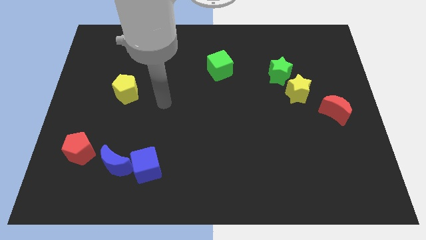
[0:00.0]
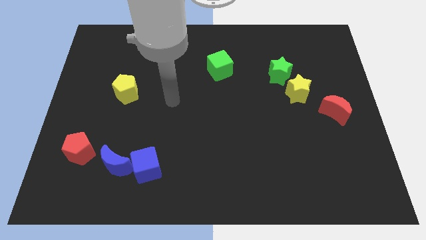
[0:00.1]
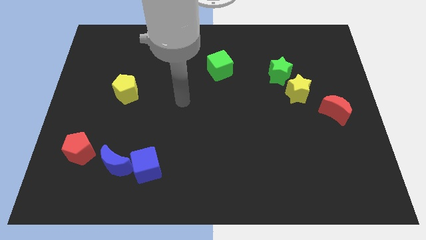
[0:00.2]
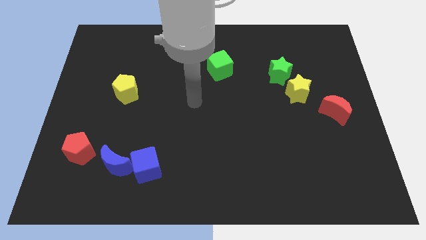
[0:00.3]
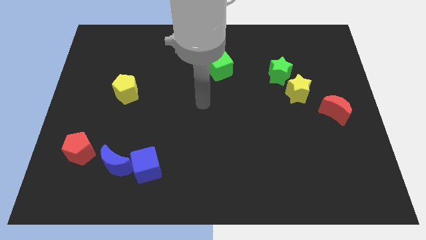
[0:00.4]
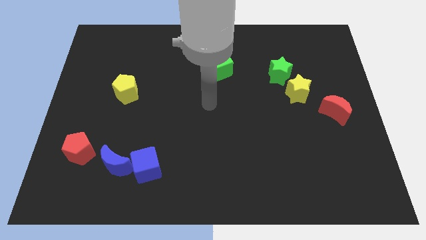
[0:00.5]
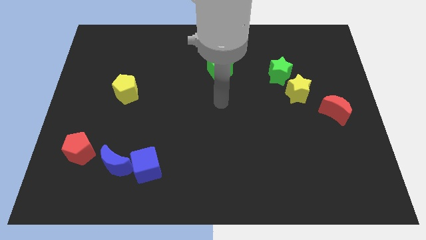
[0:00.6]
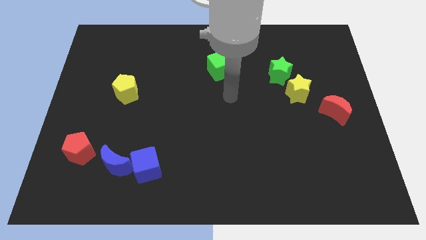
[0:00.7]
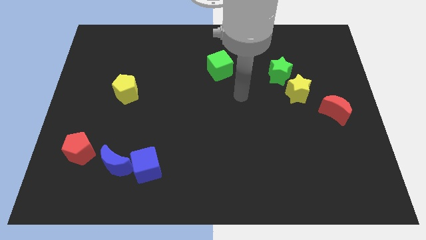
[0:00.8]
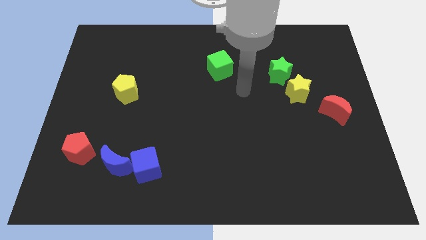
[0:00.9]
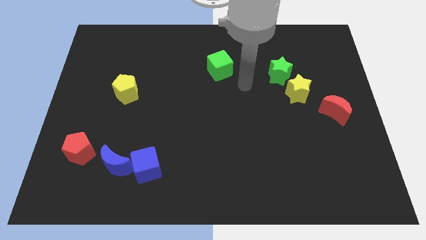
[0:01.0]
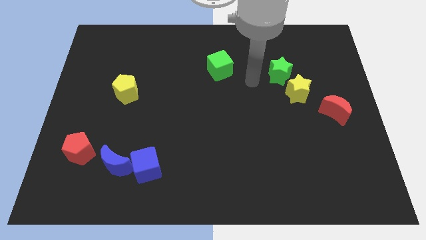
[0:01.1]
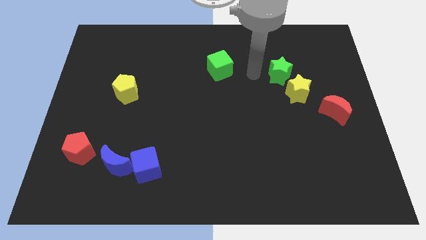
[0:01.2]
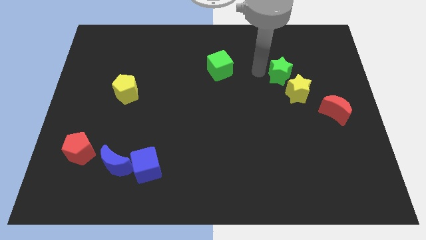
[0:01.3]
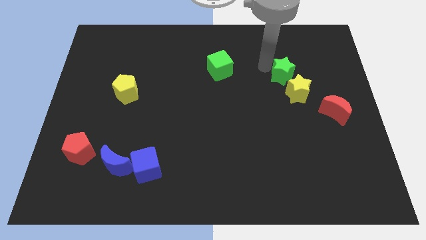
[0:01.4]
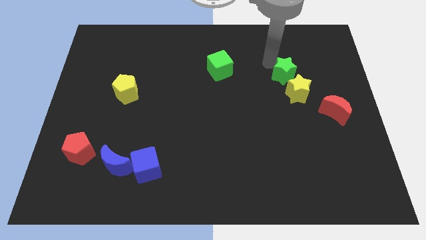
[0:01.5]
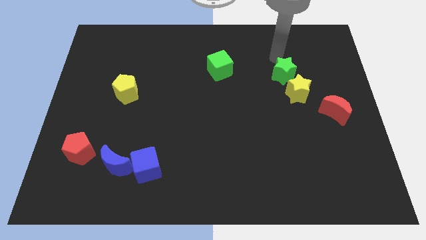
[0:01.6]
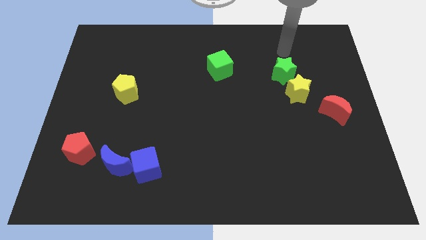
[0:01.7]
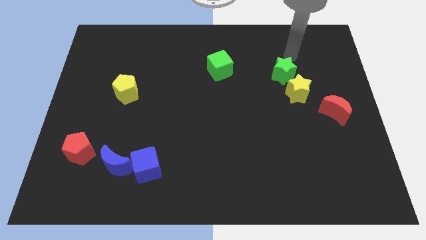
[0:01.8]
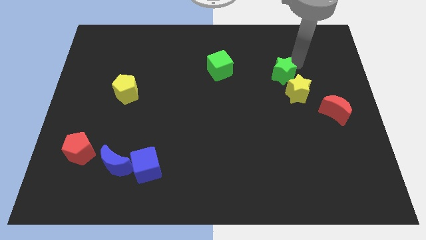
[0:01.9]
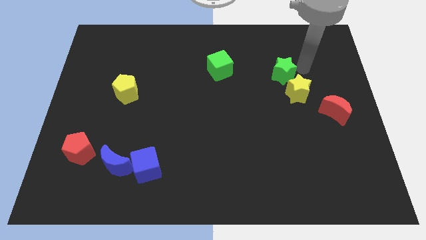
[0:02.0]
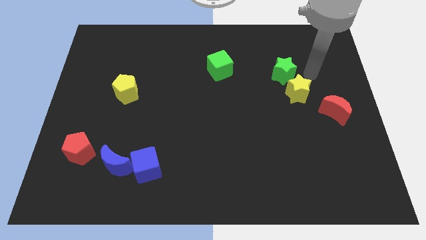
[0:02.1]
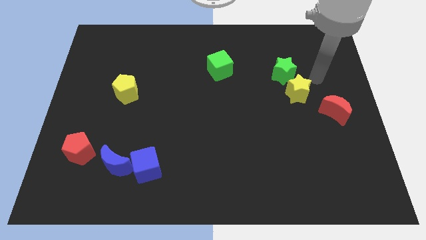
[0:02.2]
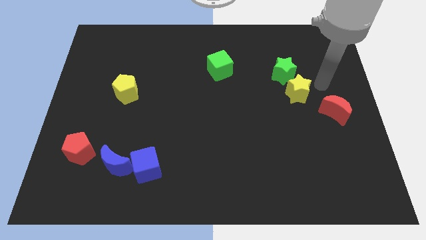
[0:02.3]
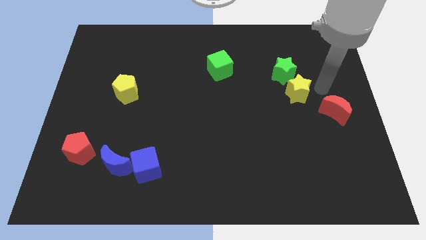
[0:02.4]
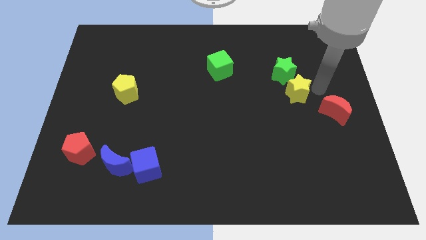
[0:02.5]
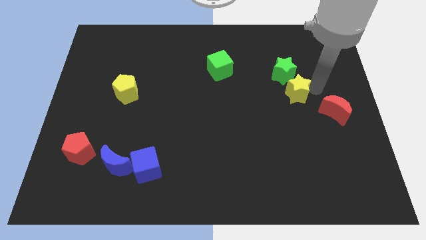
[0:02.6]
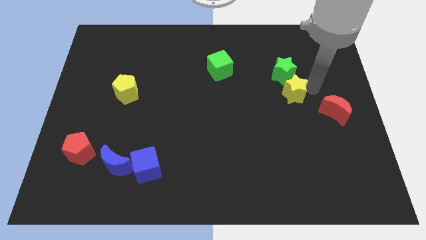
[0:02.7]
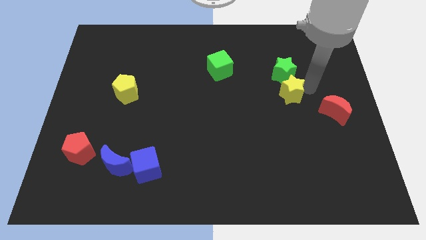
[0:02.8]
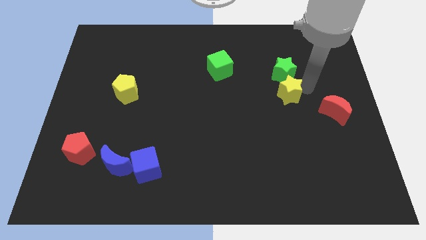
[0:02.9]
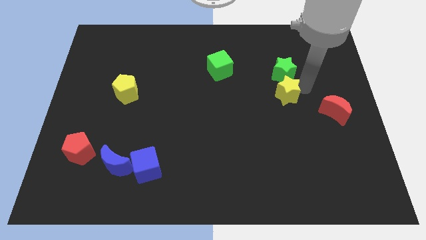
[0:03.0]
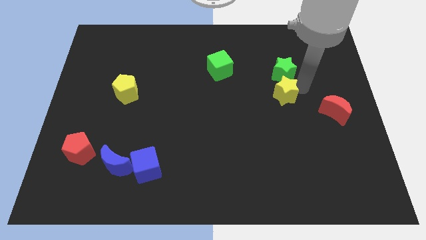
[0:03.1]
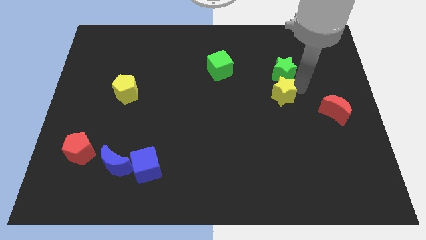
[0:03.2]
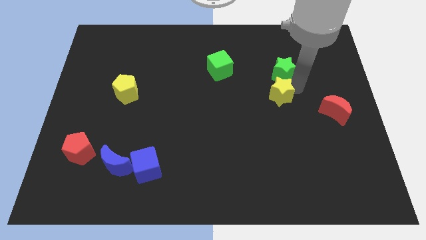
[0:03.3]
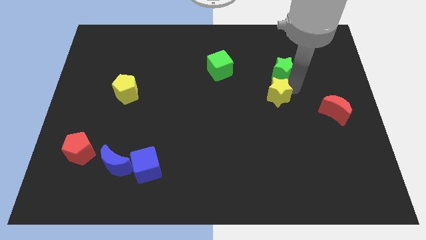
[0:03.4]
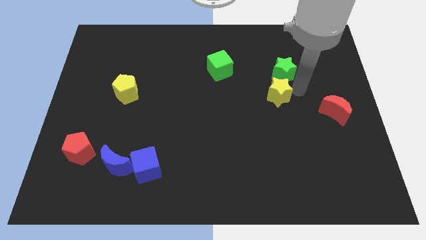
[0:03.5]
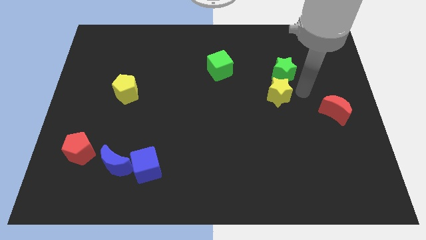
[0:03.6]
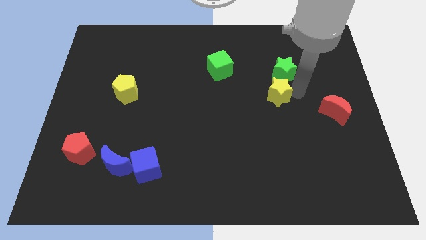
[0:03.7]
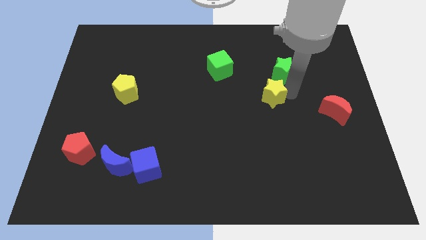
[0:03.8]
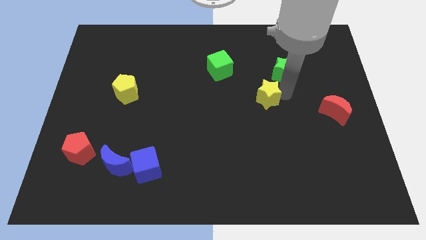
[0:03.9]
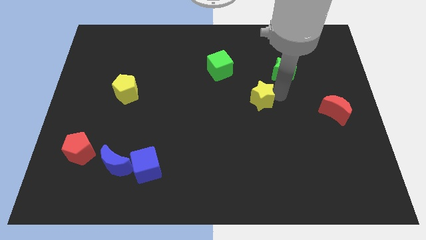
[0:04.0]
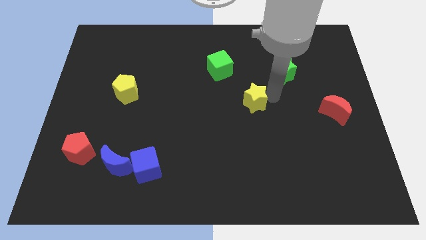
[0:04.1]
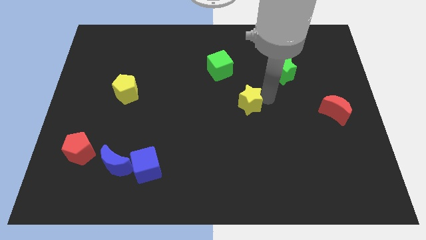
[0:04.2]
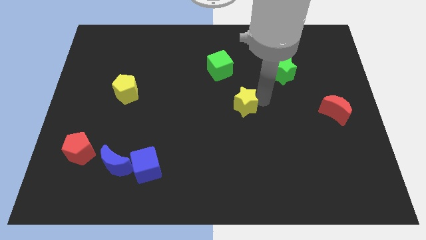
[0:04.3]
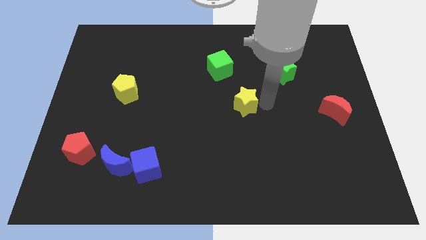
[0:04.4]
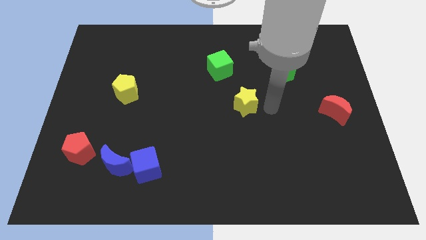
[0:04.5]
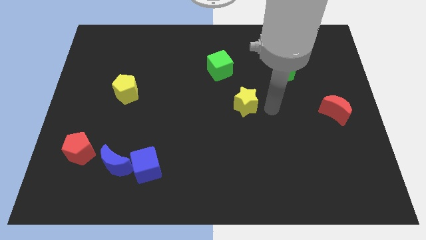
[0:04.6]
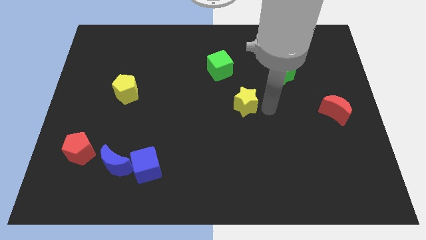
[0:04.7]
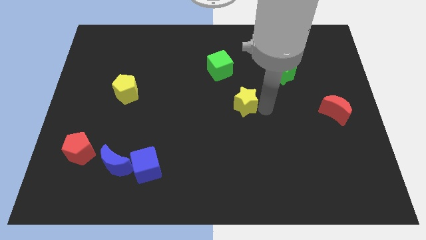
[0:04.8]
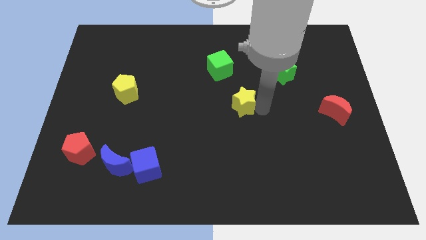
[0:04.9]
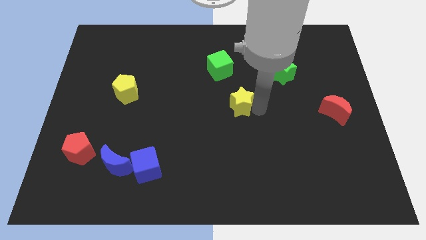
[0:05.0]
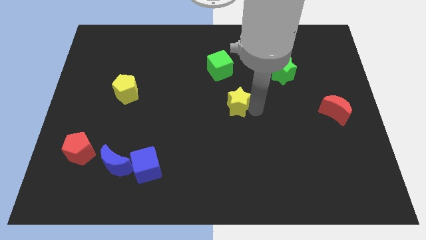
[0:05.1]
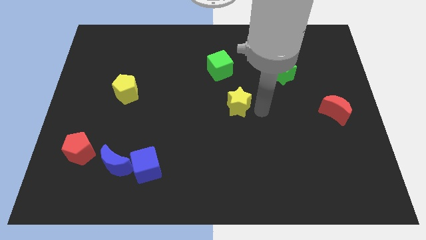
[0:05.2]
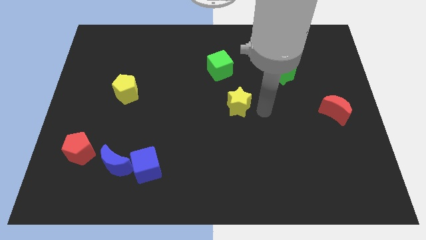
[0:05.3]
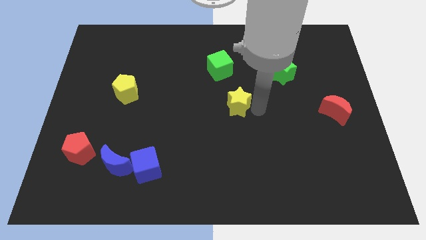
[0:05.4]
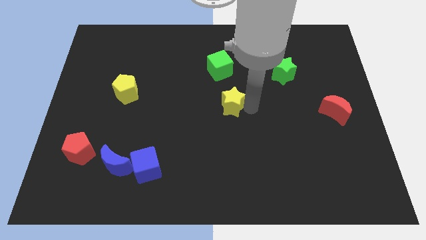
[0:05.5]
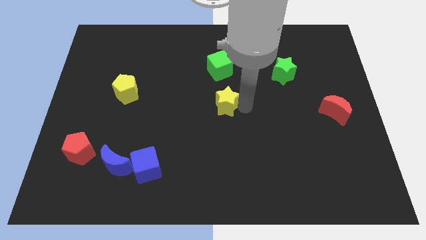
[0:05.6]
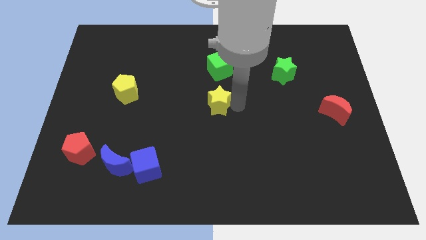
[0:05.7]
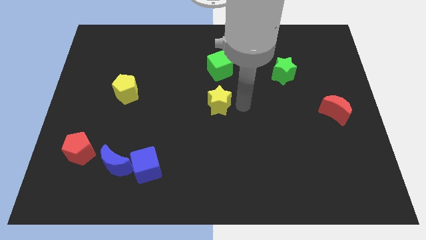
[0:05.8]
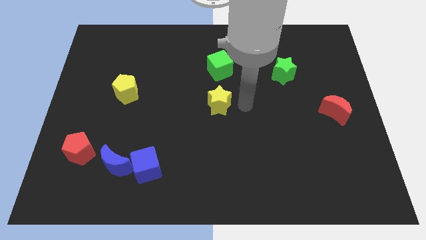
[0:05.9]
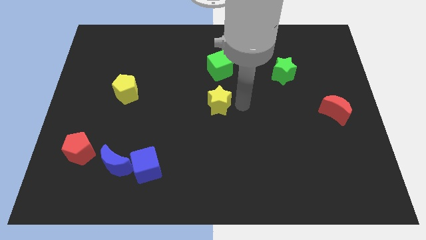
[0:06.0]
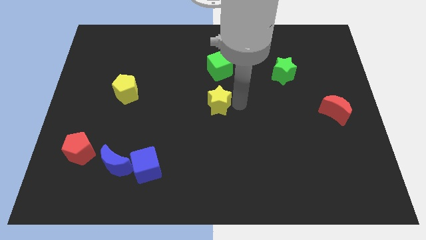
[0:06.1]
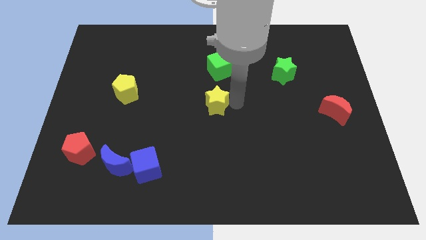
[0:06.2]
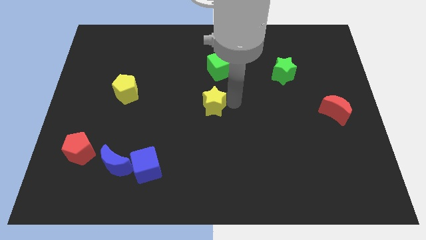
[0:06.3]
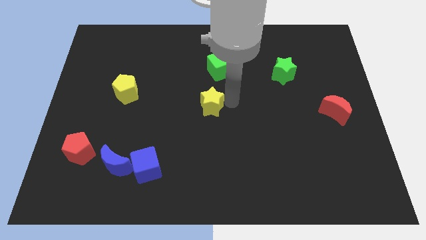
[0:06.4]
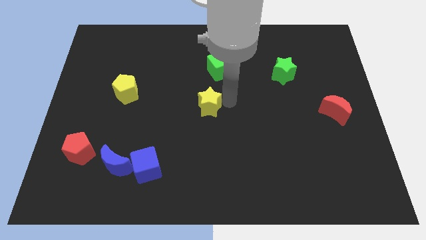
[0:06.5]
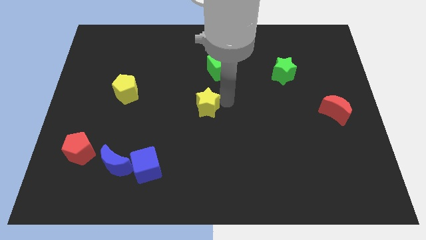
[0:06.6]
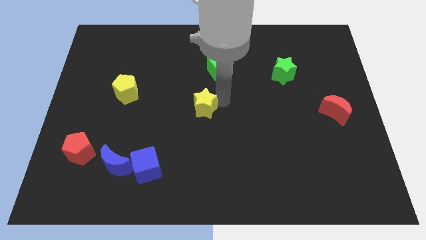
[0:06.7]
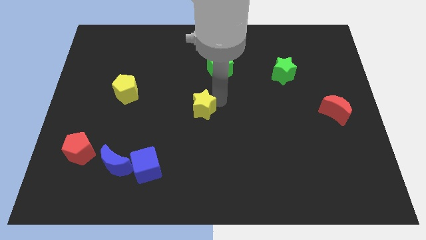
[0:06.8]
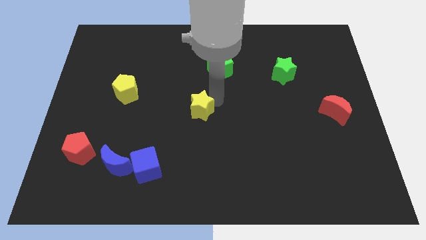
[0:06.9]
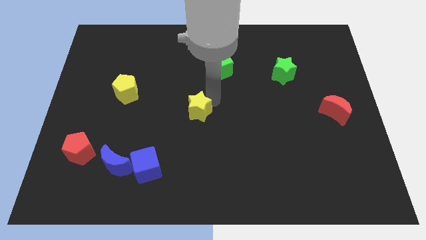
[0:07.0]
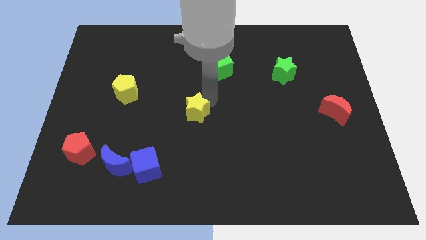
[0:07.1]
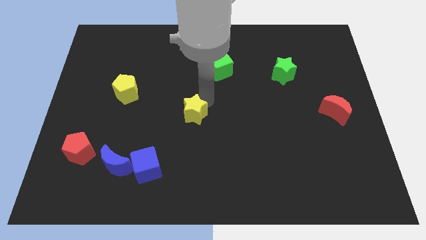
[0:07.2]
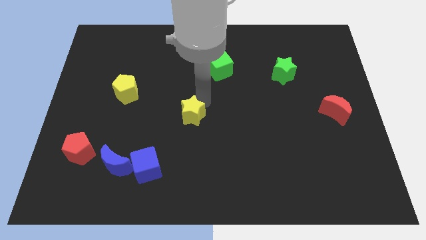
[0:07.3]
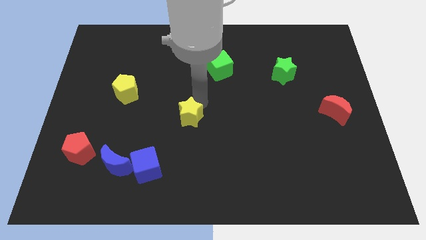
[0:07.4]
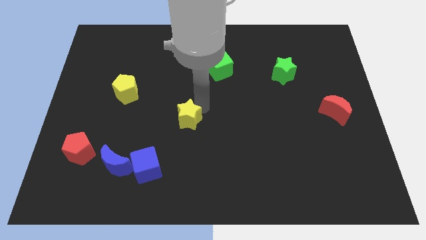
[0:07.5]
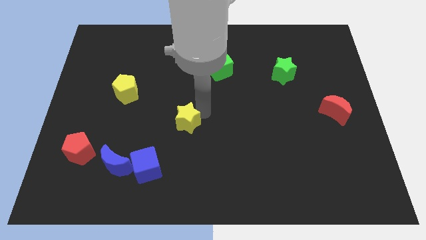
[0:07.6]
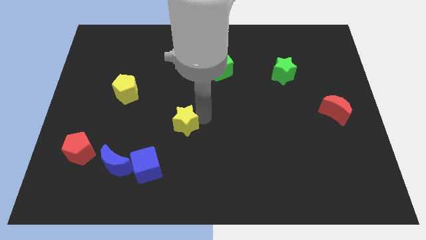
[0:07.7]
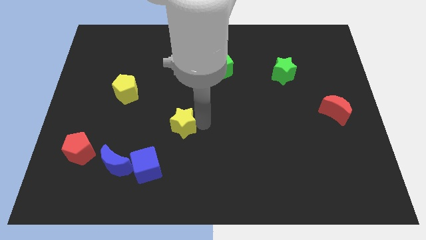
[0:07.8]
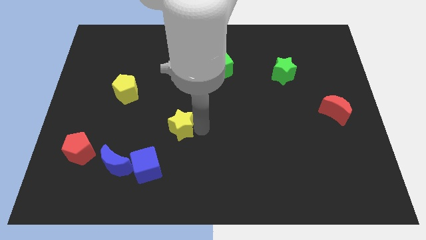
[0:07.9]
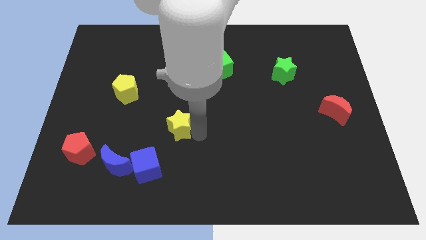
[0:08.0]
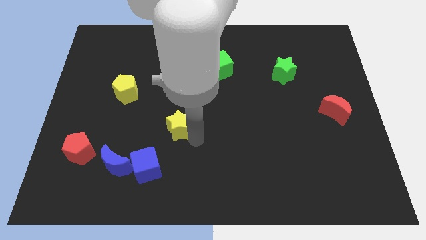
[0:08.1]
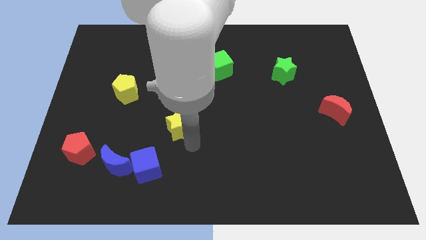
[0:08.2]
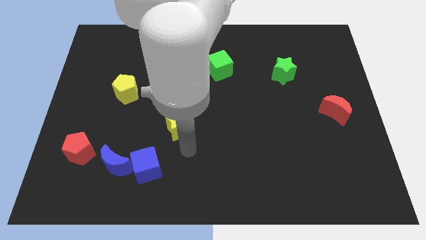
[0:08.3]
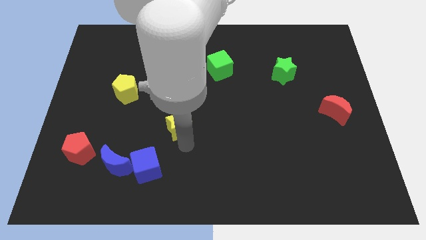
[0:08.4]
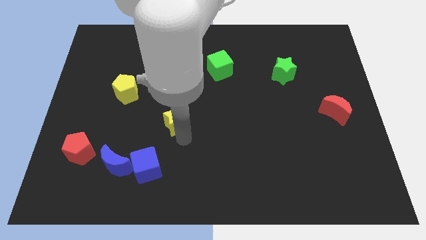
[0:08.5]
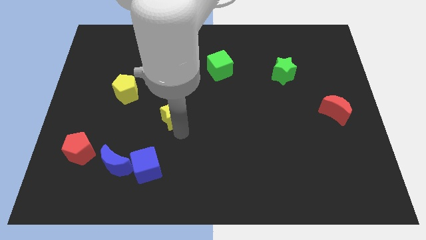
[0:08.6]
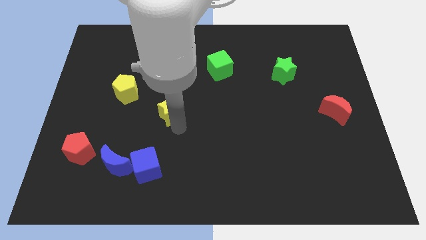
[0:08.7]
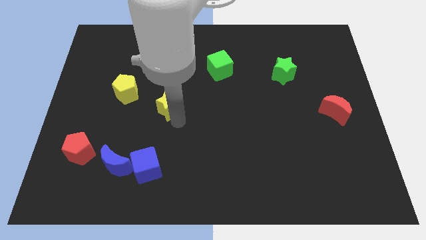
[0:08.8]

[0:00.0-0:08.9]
move the yellow star to the bottom right of the yellow pentagon
